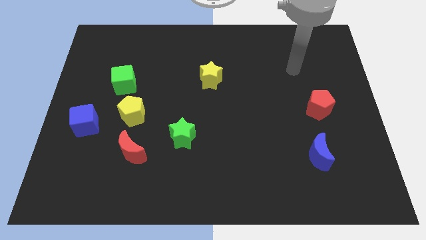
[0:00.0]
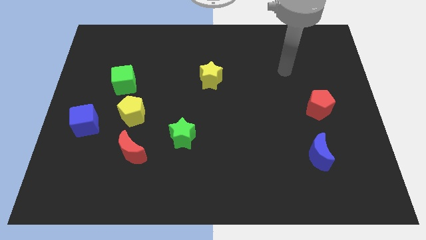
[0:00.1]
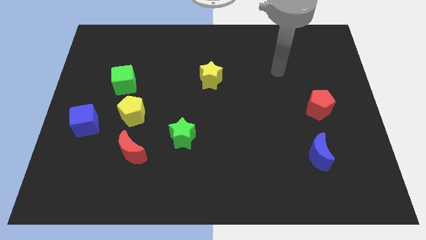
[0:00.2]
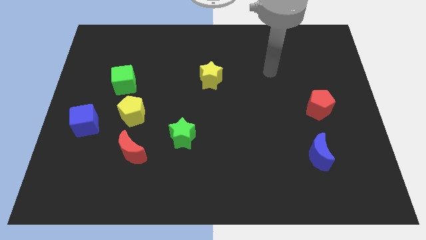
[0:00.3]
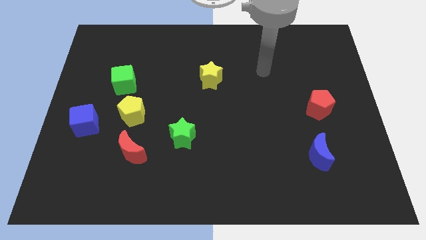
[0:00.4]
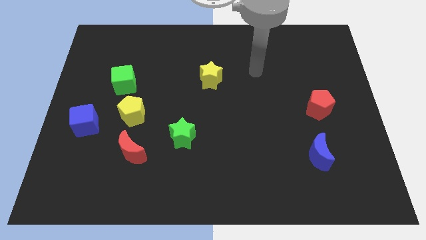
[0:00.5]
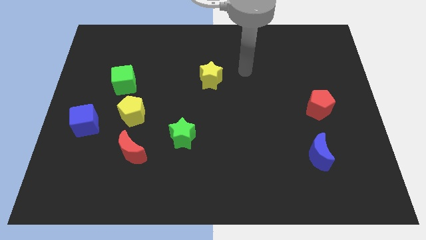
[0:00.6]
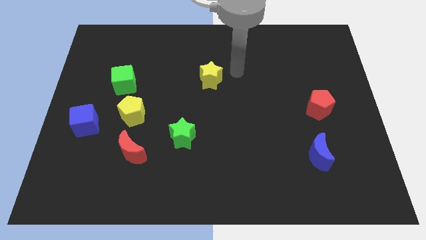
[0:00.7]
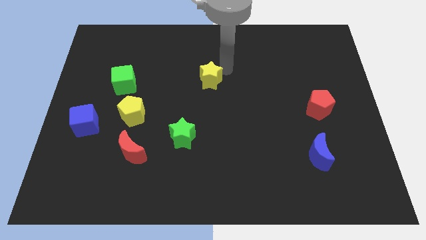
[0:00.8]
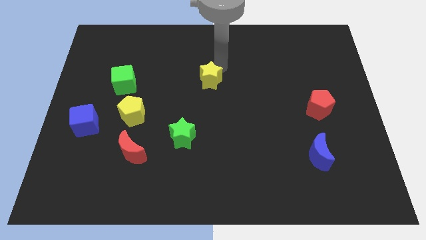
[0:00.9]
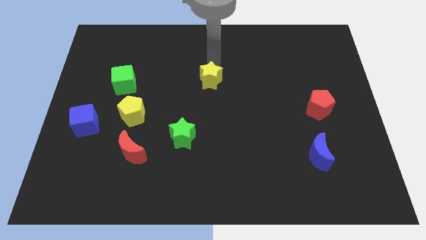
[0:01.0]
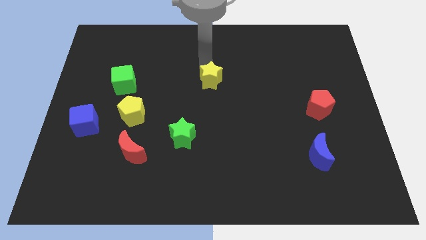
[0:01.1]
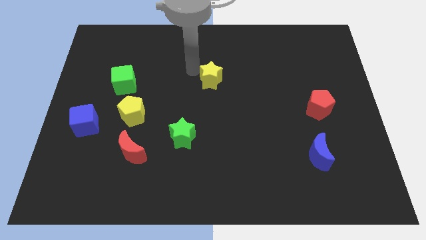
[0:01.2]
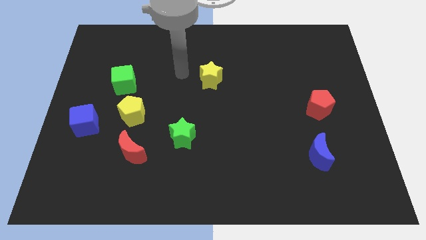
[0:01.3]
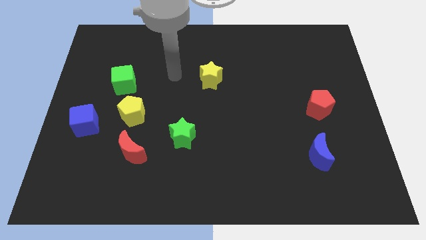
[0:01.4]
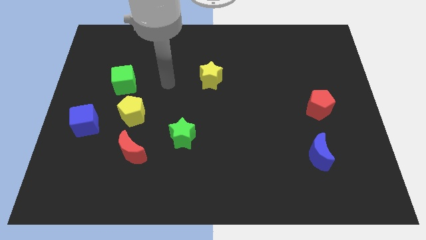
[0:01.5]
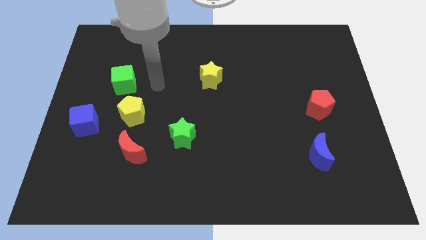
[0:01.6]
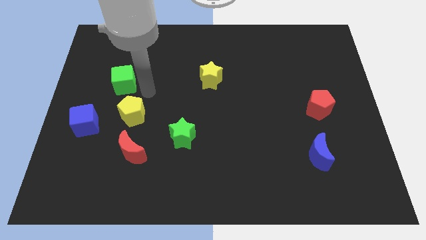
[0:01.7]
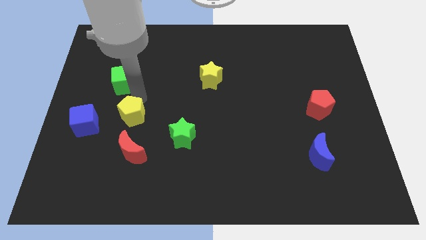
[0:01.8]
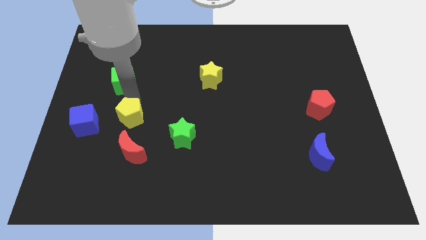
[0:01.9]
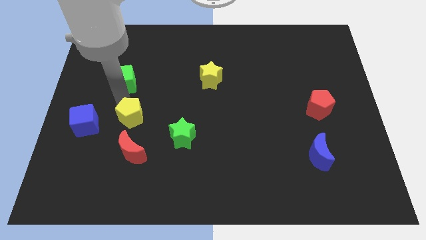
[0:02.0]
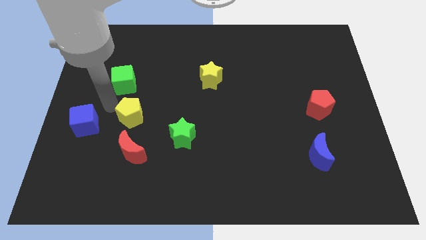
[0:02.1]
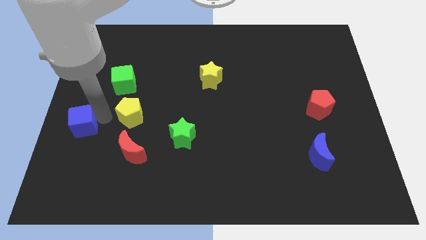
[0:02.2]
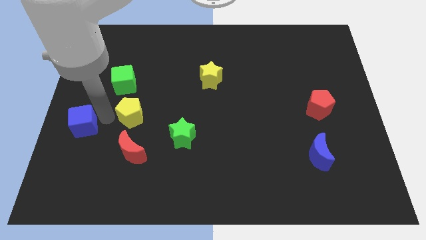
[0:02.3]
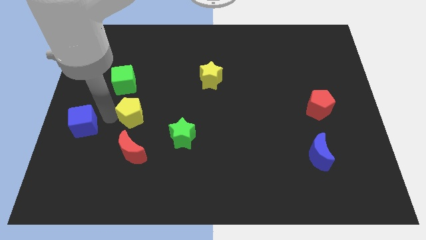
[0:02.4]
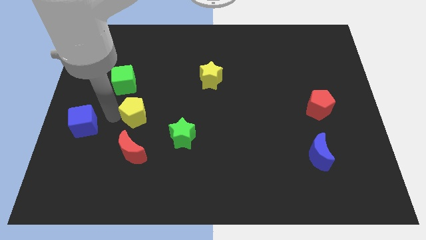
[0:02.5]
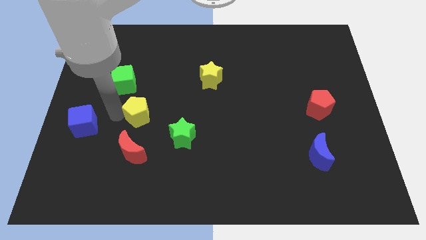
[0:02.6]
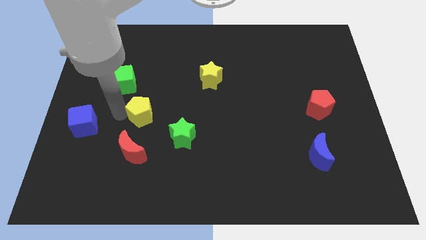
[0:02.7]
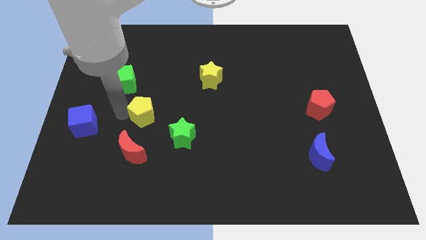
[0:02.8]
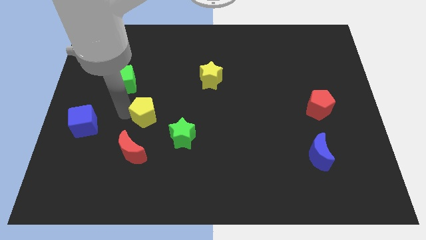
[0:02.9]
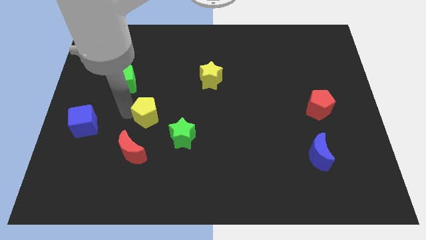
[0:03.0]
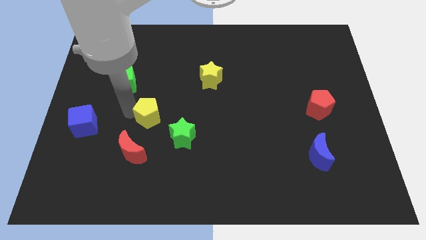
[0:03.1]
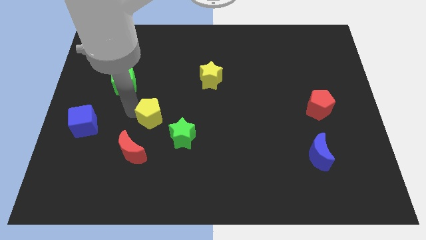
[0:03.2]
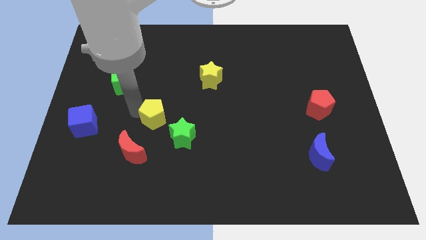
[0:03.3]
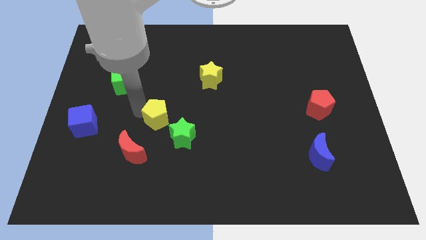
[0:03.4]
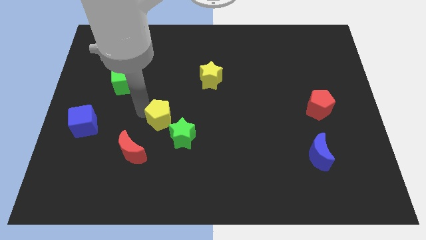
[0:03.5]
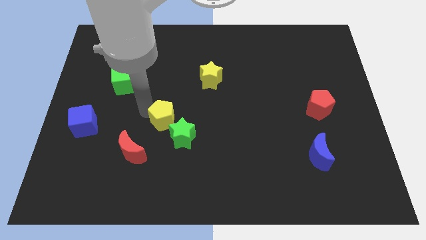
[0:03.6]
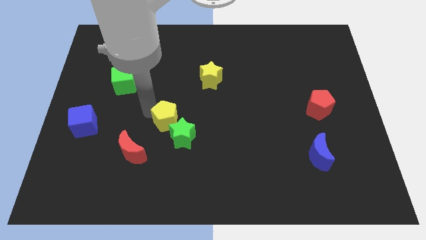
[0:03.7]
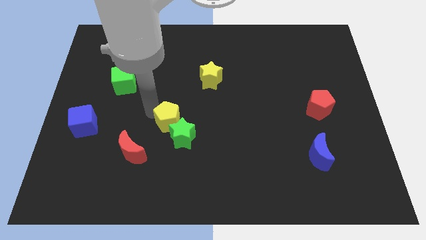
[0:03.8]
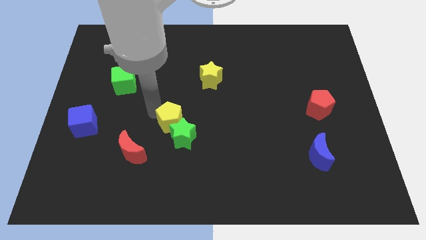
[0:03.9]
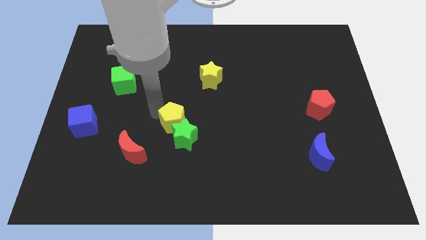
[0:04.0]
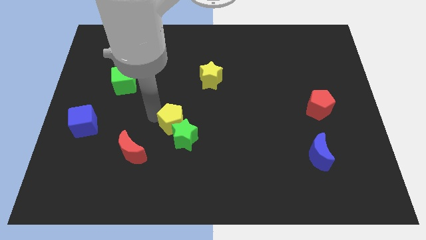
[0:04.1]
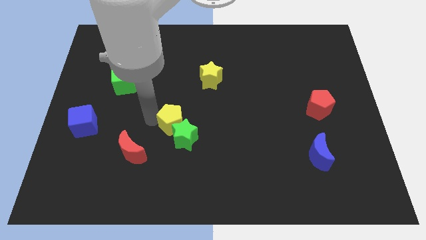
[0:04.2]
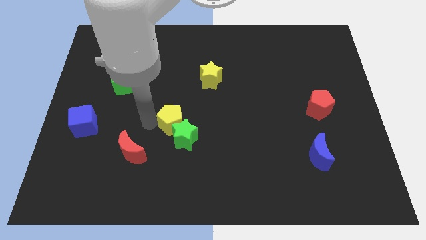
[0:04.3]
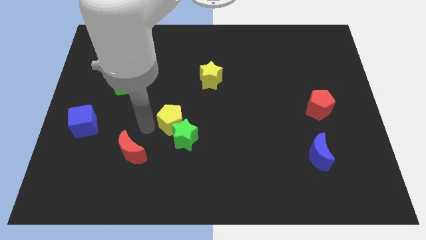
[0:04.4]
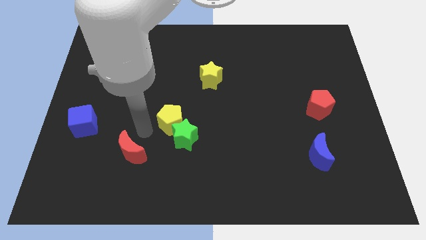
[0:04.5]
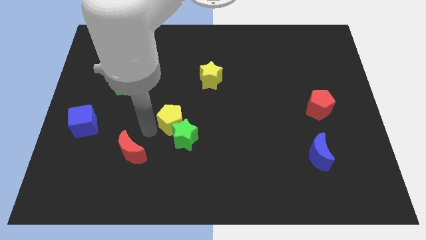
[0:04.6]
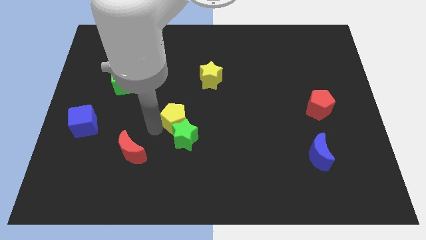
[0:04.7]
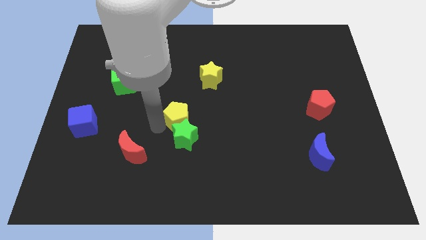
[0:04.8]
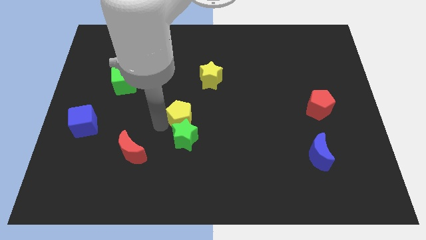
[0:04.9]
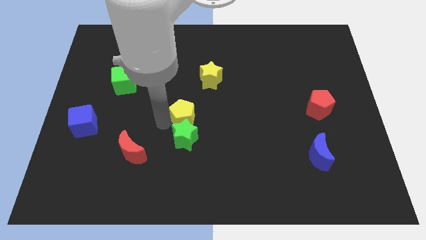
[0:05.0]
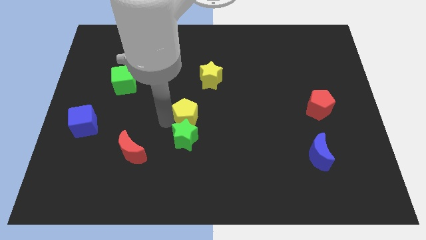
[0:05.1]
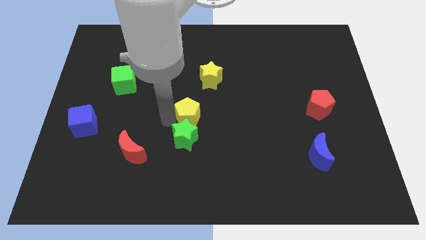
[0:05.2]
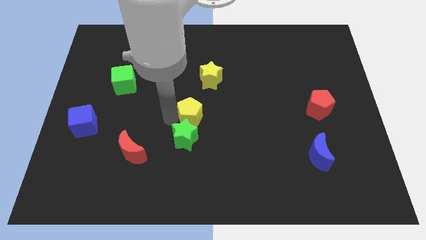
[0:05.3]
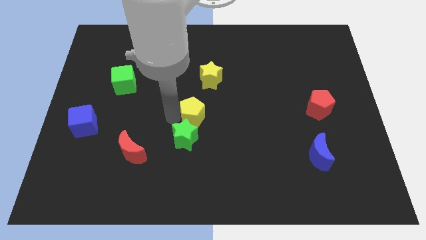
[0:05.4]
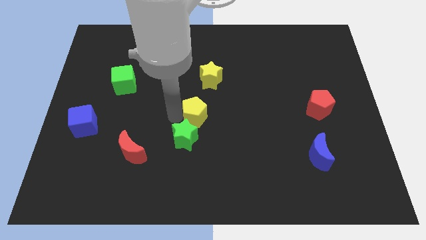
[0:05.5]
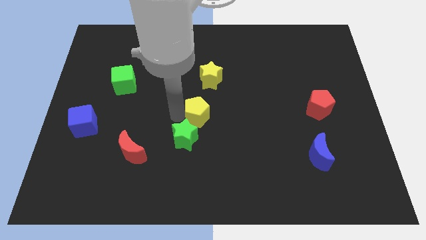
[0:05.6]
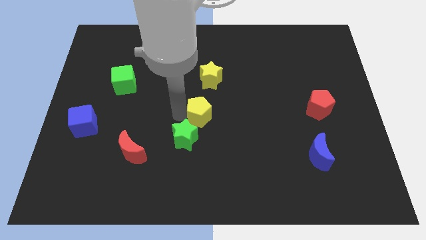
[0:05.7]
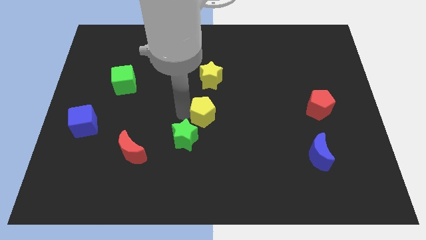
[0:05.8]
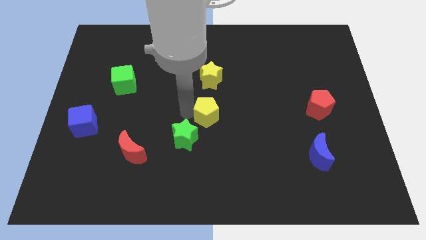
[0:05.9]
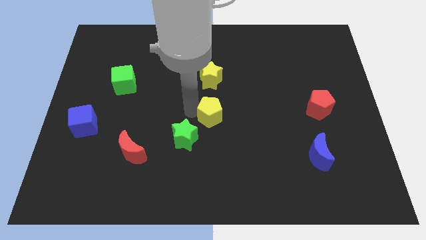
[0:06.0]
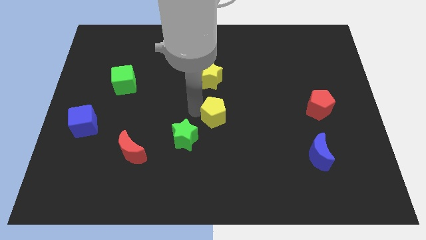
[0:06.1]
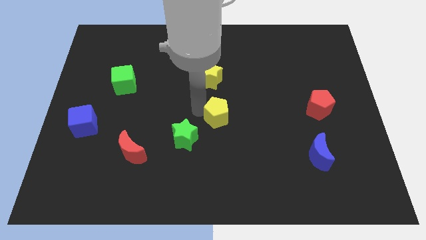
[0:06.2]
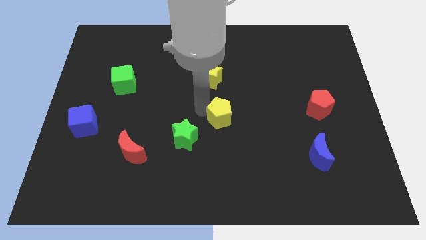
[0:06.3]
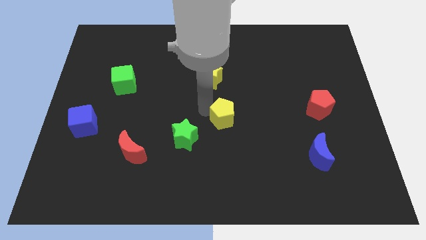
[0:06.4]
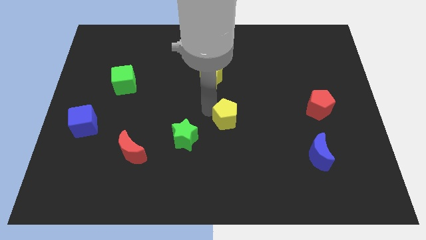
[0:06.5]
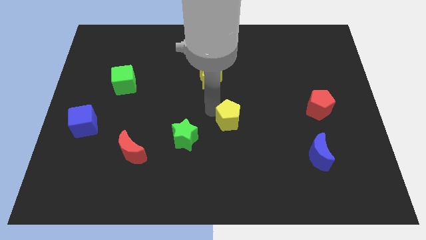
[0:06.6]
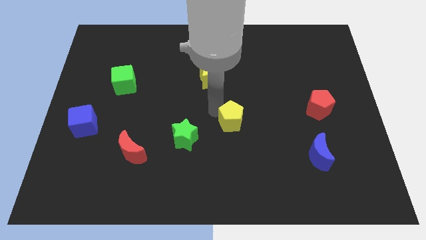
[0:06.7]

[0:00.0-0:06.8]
move the yellow pentagon right of the green star
